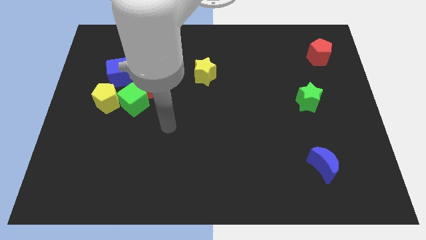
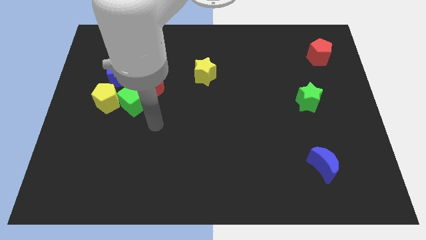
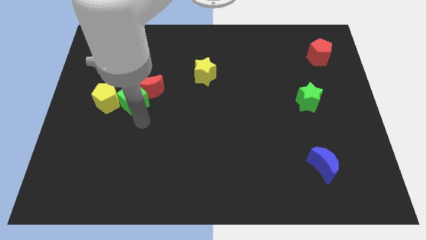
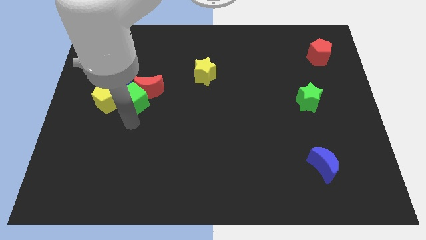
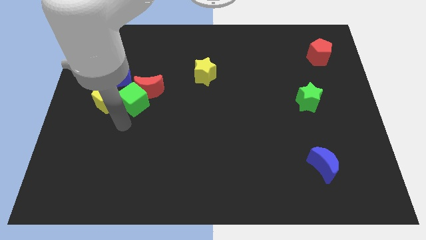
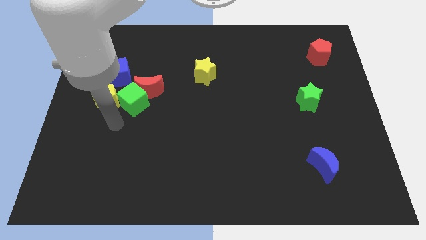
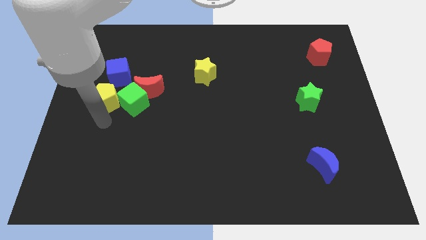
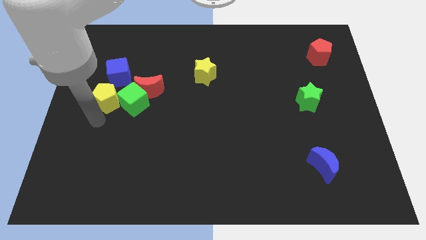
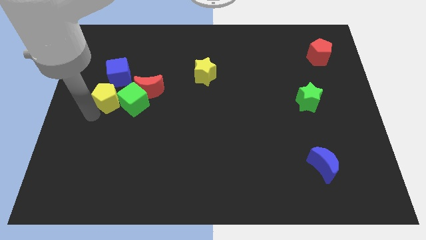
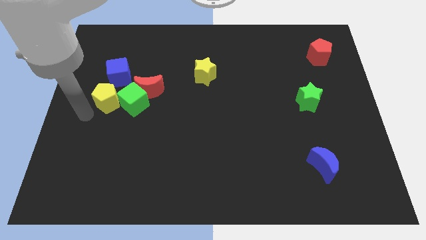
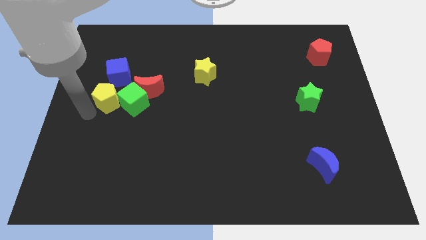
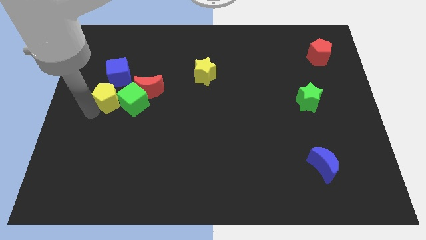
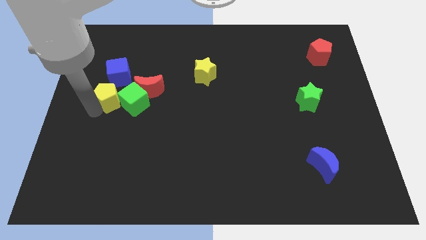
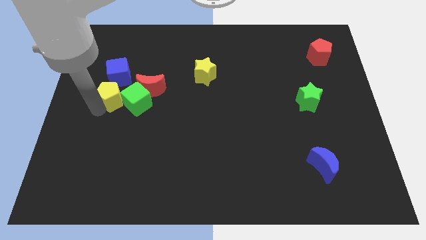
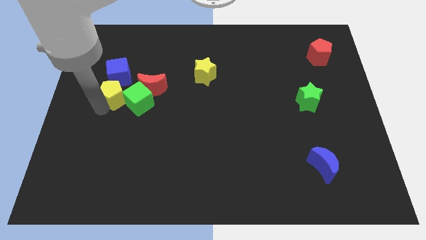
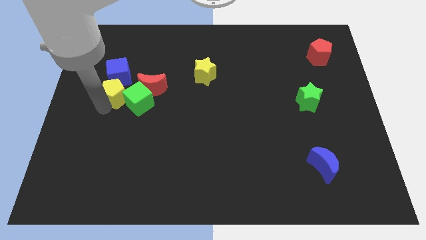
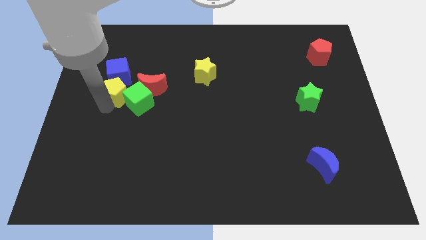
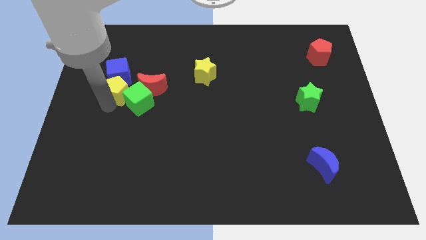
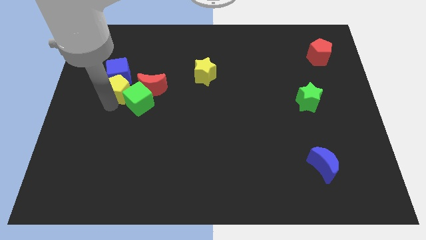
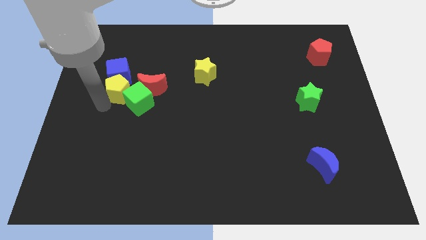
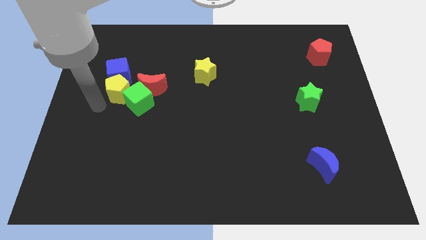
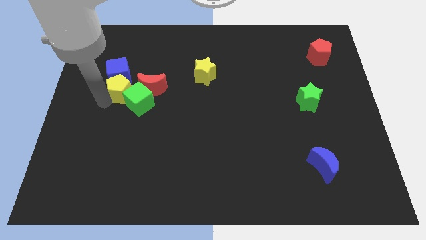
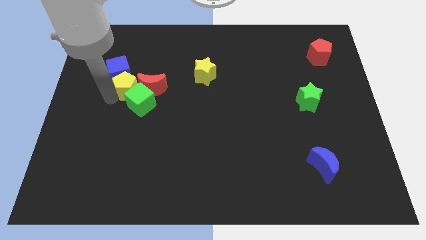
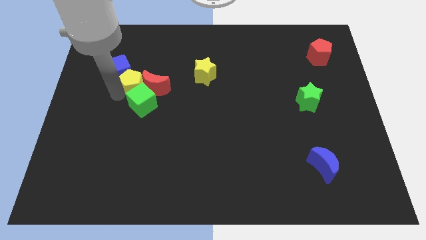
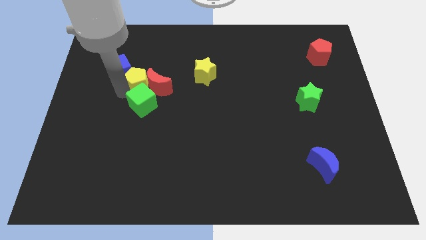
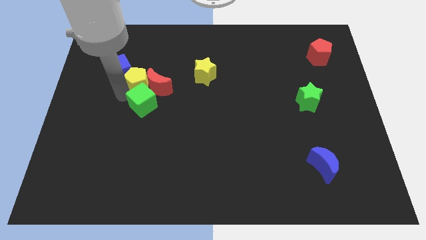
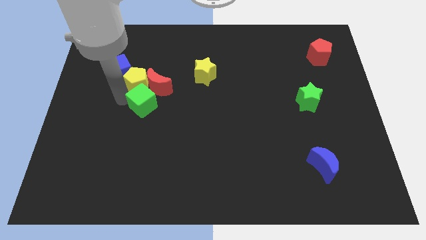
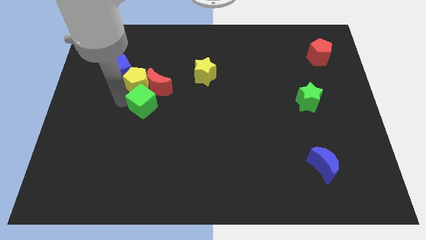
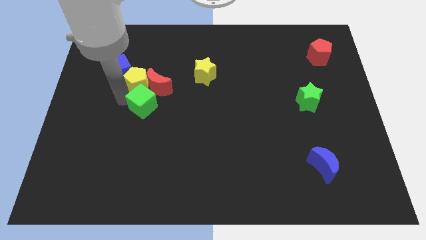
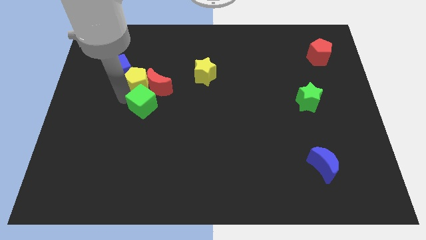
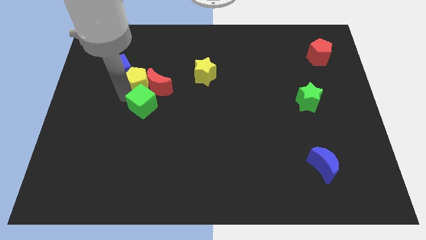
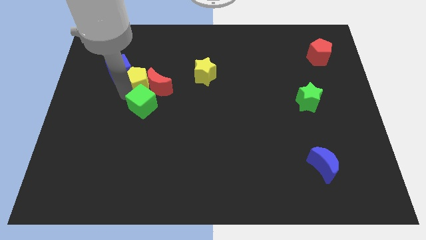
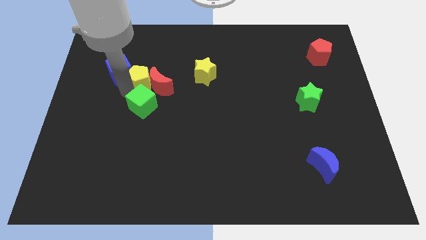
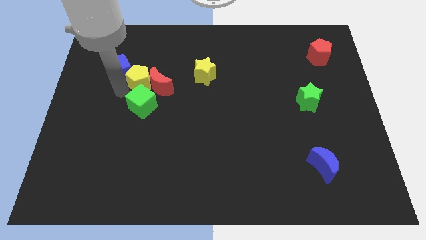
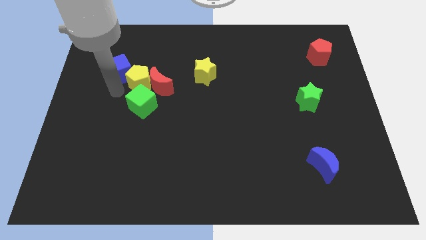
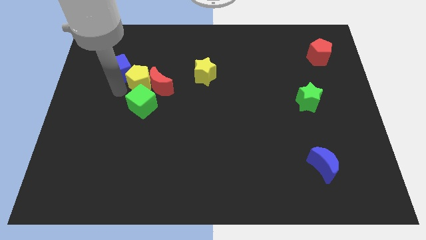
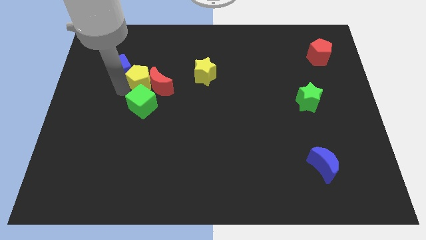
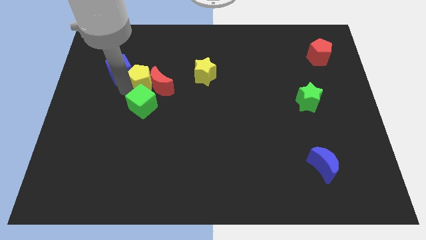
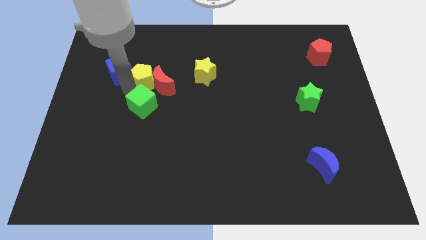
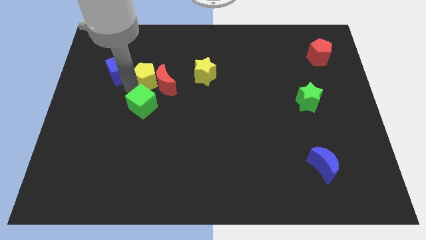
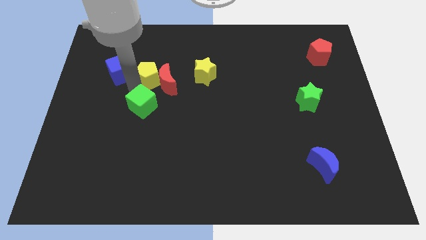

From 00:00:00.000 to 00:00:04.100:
move the yellow pentagon right a little bit

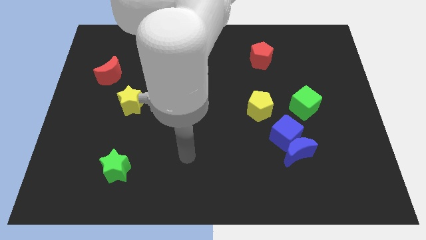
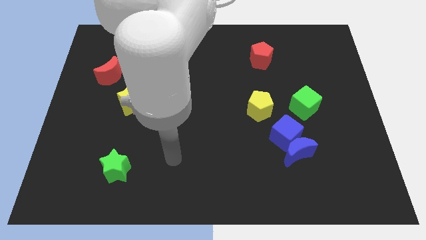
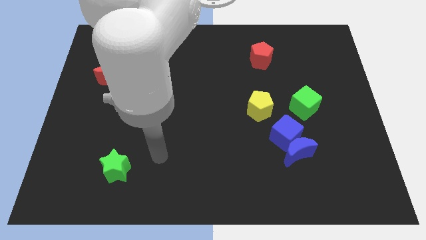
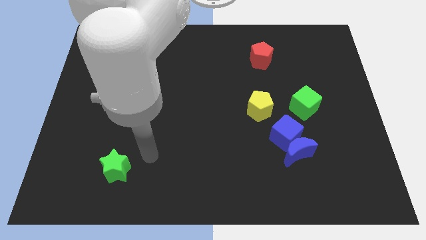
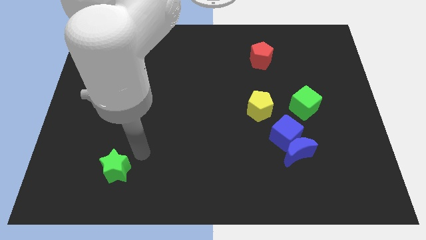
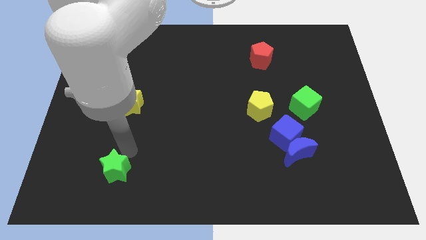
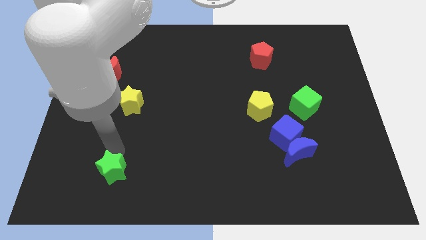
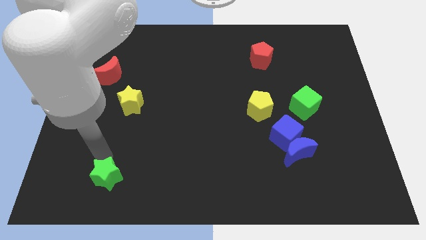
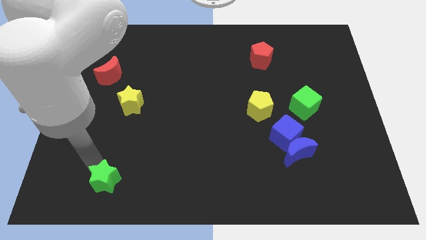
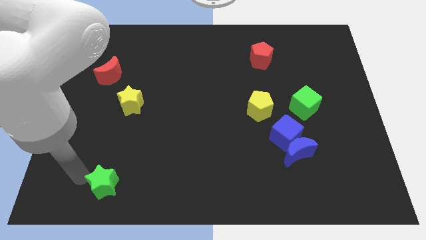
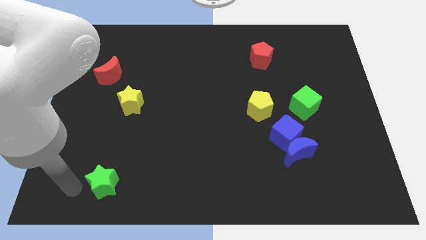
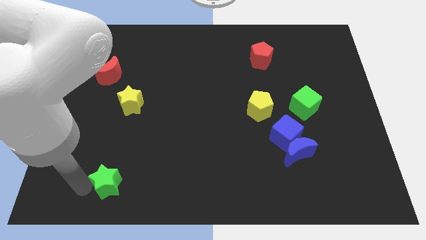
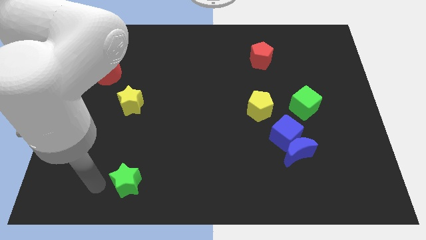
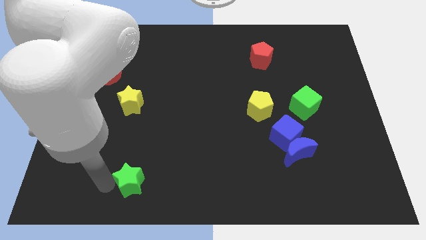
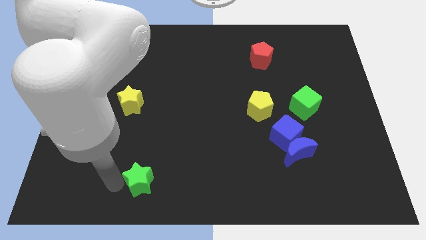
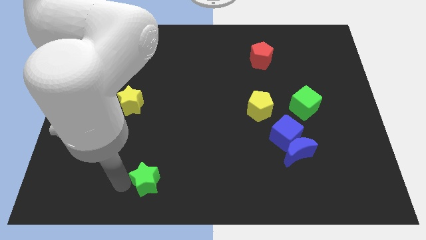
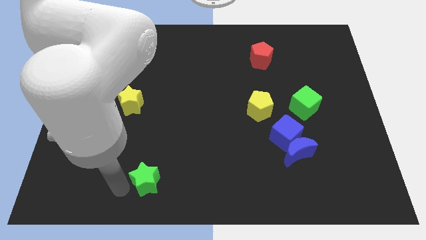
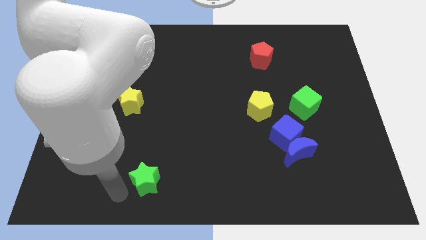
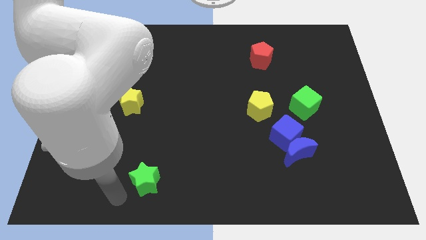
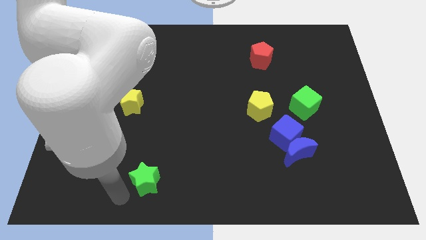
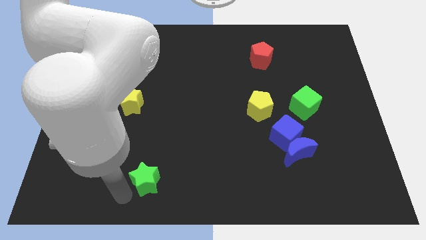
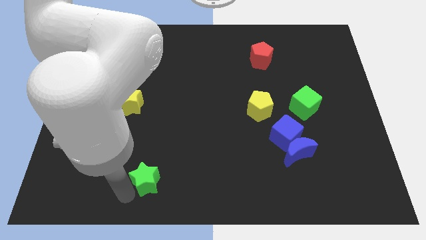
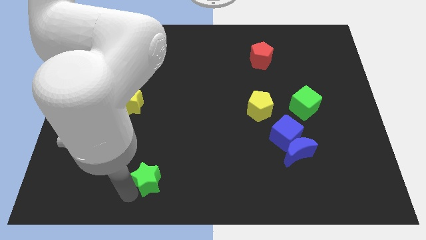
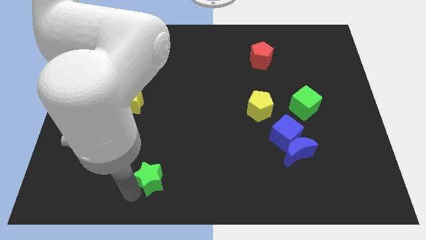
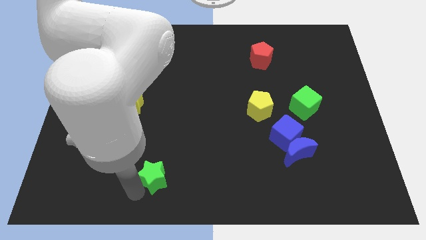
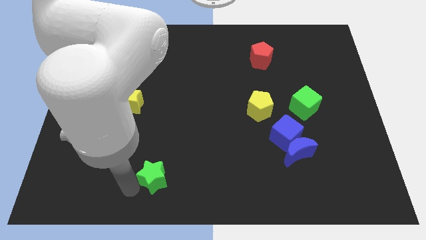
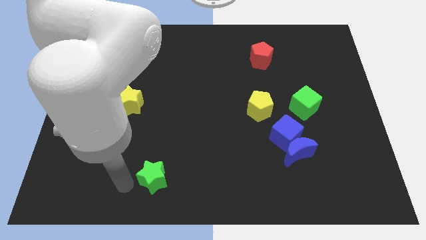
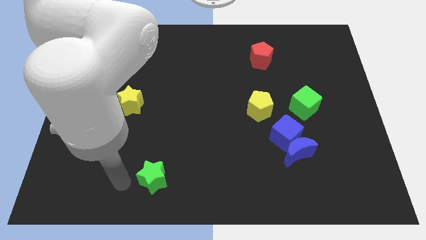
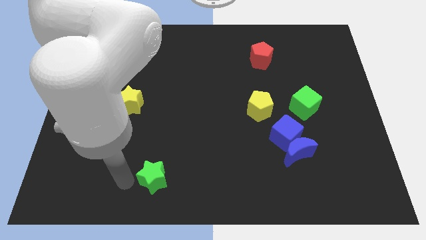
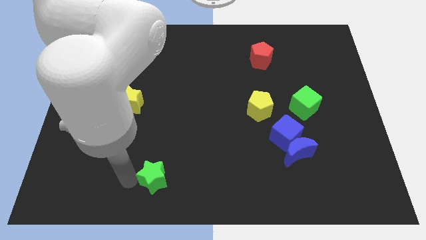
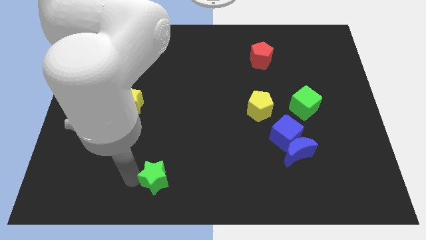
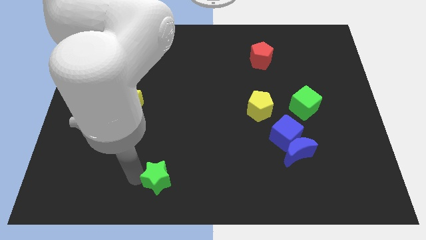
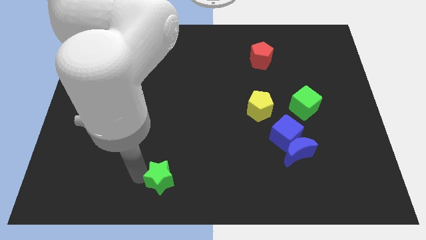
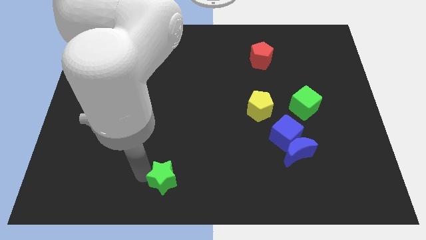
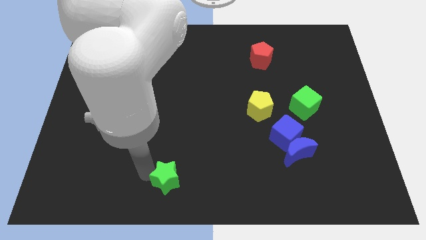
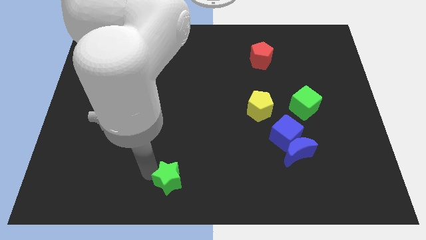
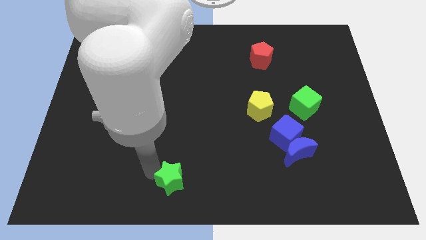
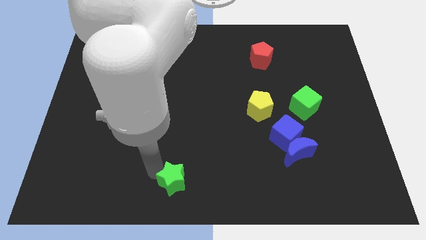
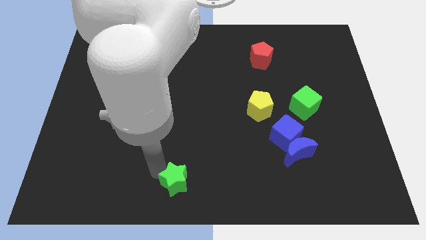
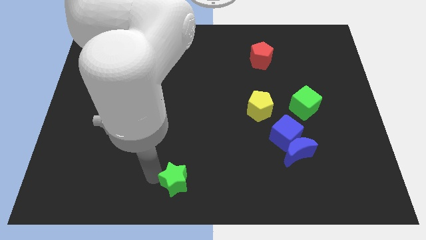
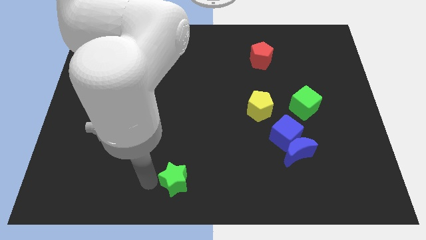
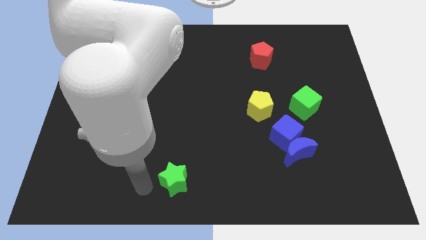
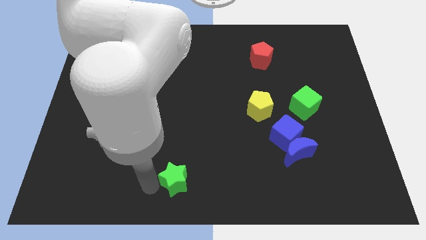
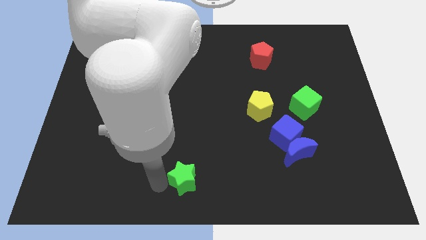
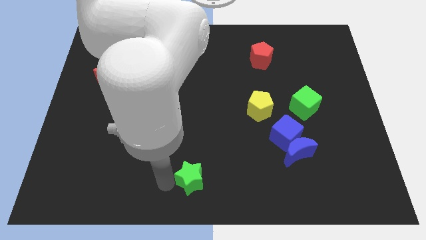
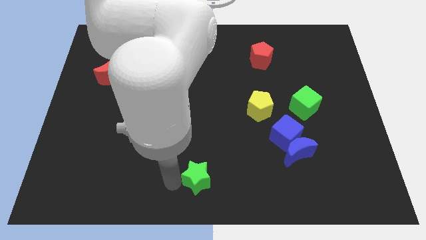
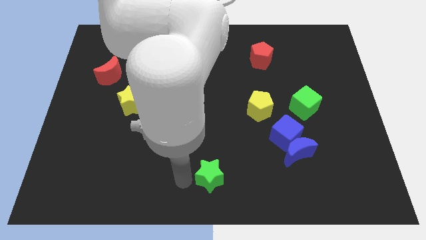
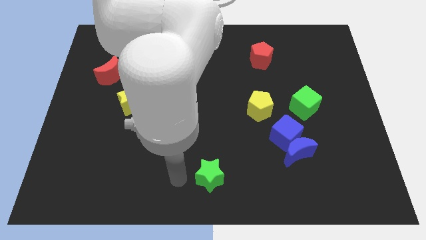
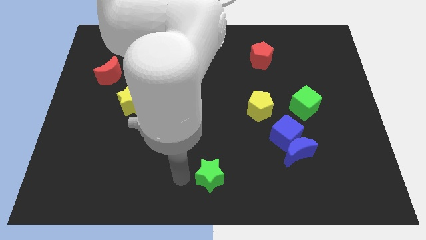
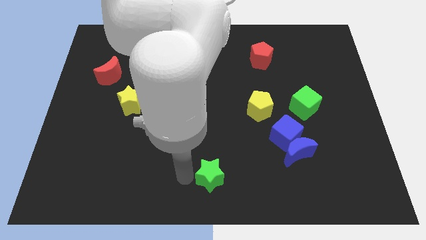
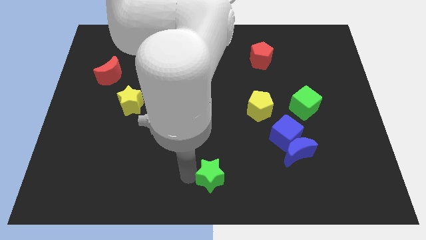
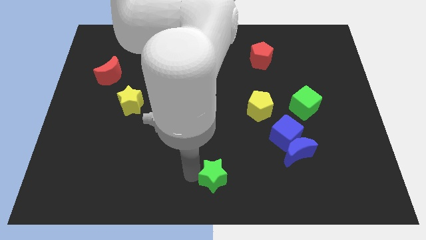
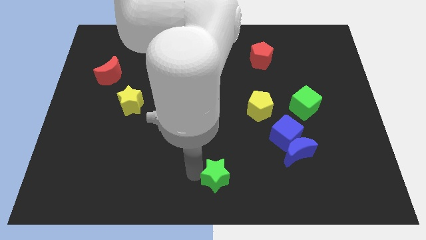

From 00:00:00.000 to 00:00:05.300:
slide the green star to the right
